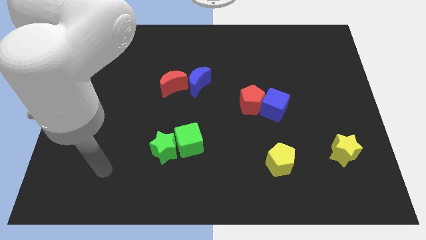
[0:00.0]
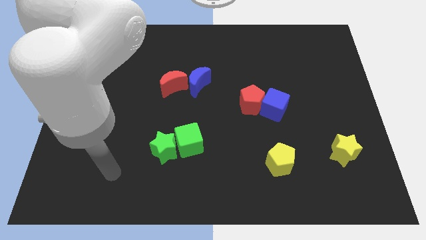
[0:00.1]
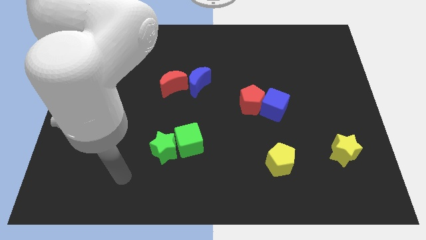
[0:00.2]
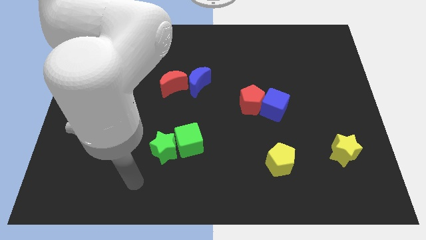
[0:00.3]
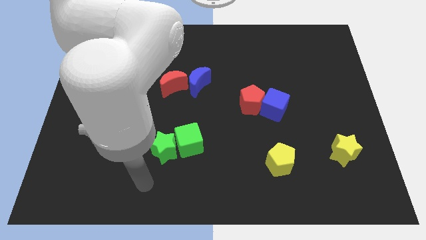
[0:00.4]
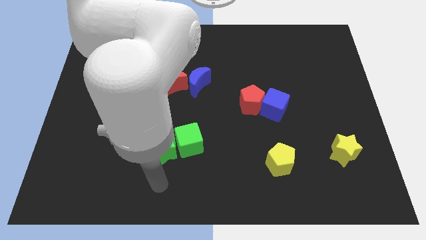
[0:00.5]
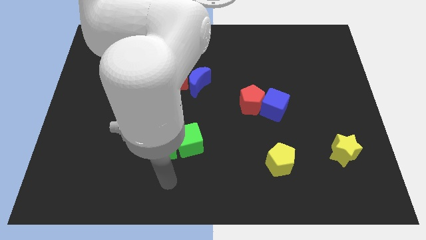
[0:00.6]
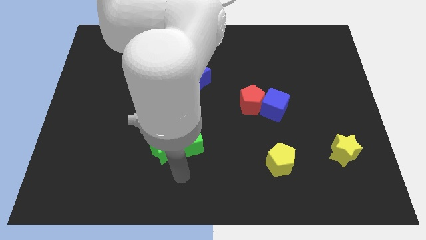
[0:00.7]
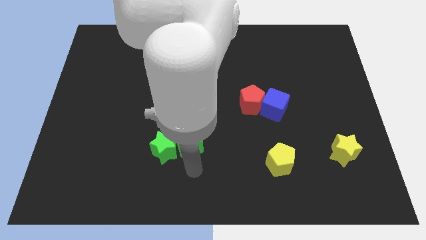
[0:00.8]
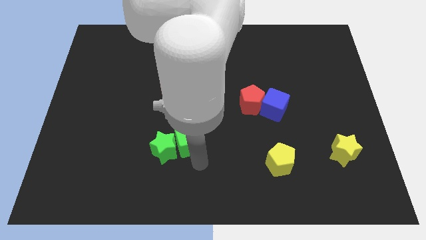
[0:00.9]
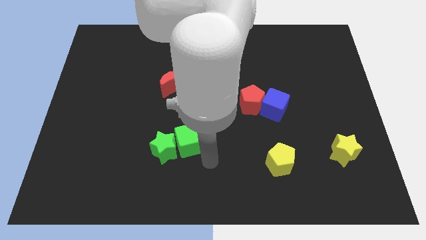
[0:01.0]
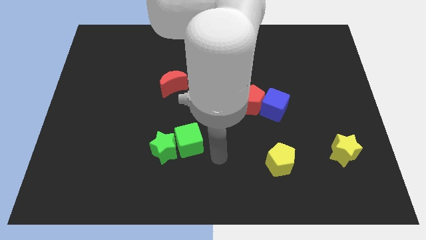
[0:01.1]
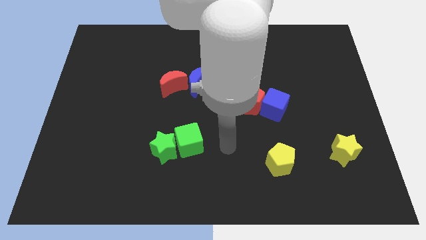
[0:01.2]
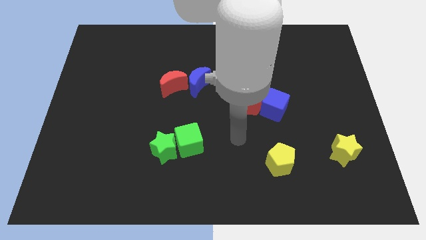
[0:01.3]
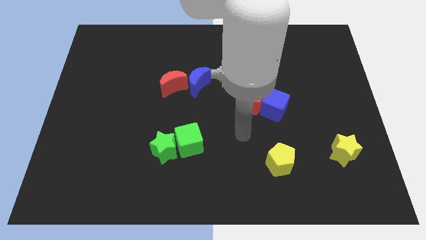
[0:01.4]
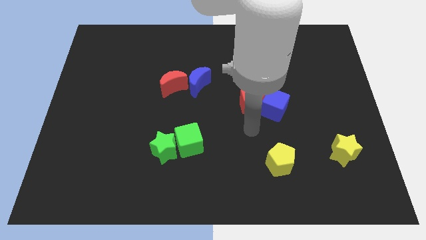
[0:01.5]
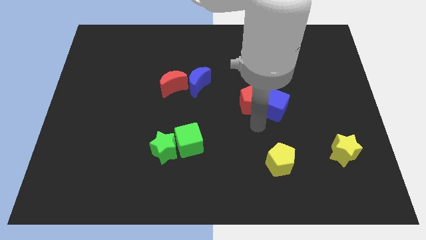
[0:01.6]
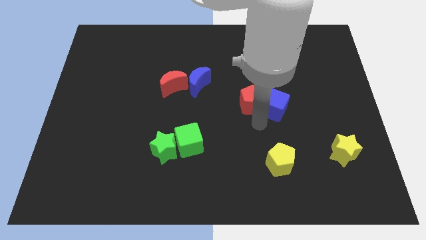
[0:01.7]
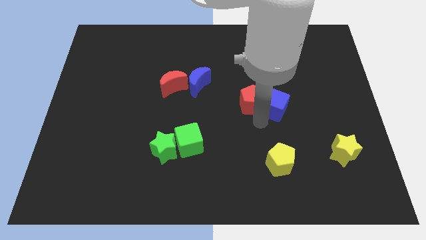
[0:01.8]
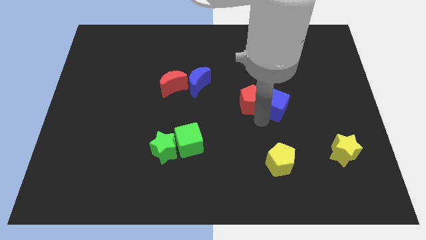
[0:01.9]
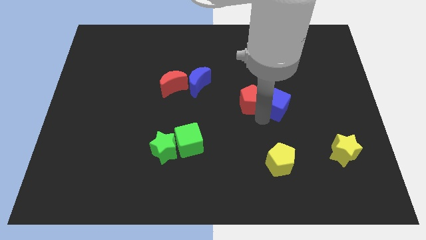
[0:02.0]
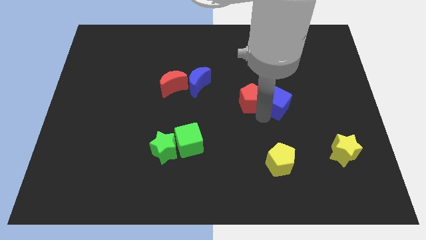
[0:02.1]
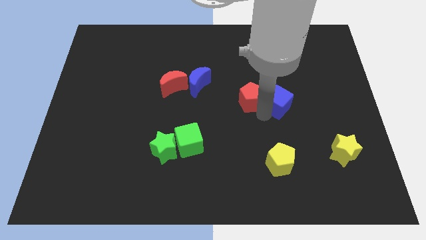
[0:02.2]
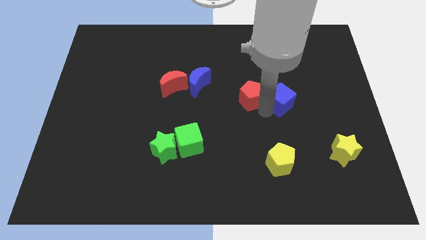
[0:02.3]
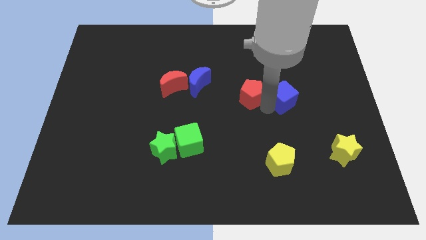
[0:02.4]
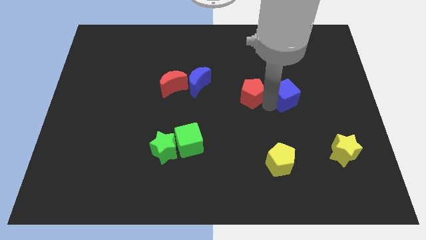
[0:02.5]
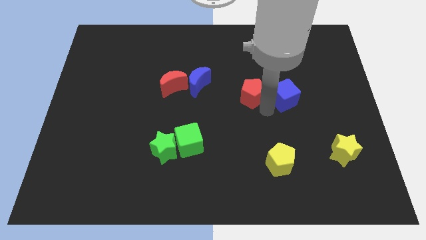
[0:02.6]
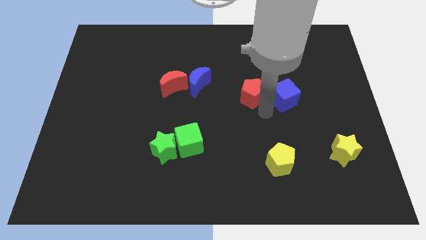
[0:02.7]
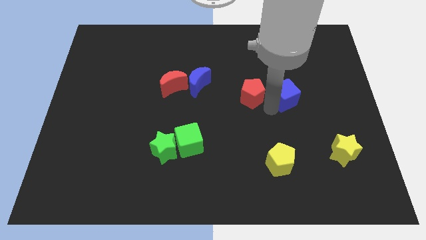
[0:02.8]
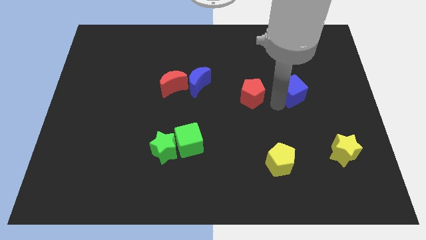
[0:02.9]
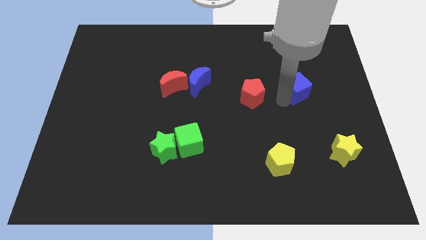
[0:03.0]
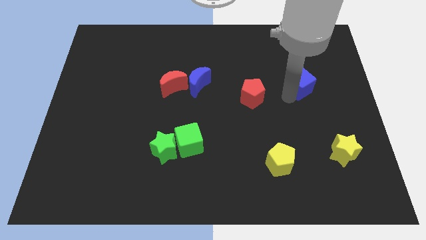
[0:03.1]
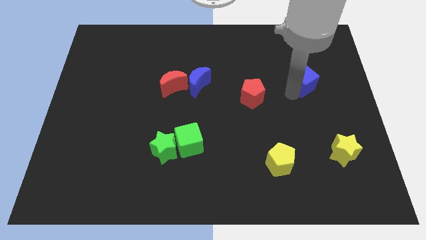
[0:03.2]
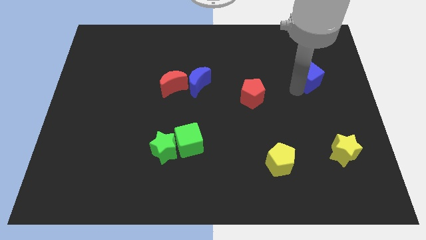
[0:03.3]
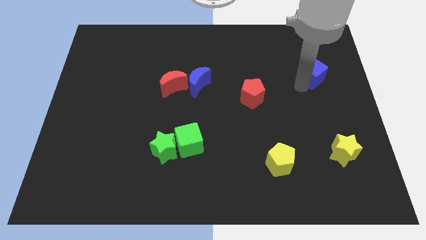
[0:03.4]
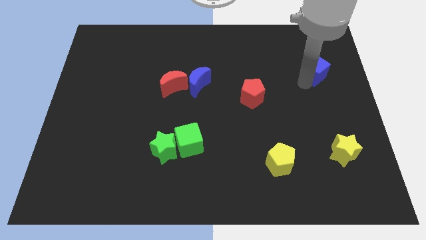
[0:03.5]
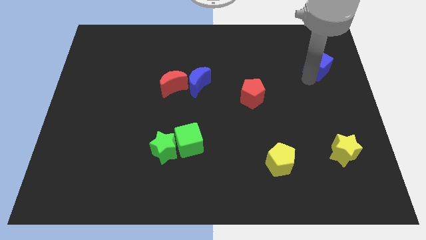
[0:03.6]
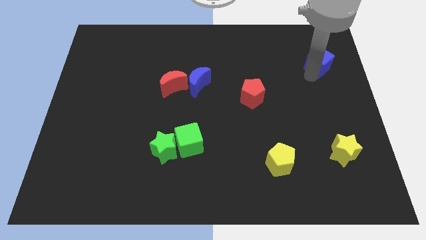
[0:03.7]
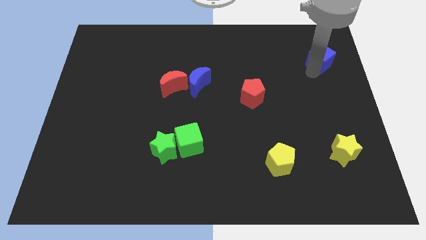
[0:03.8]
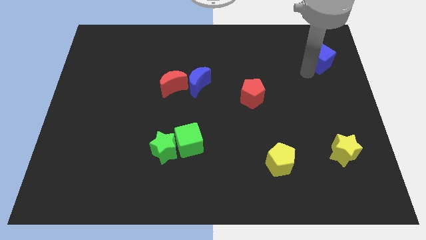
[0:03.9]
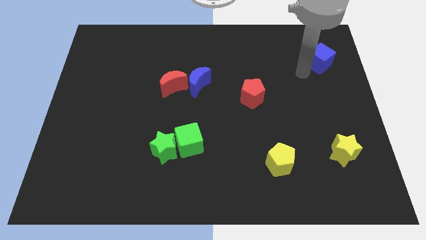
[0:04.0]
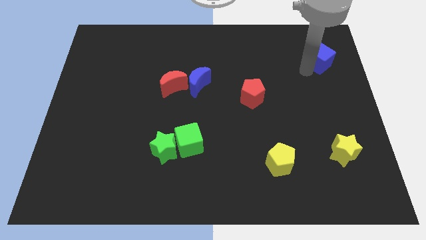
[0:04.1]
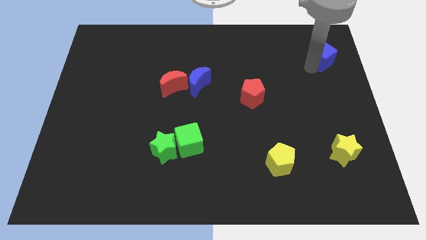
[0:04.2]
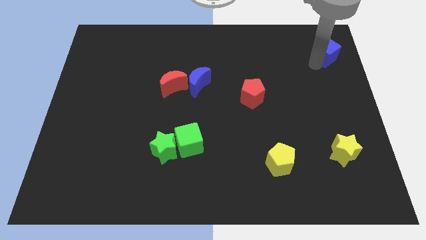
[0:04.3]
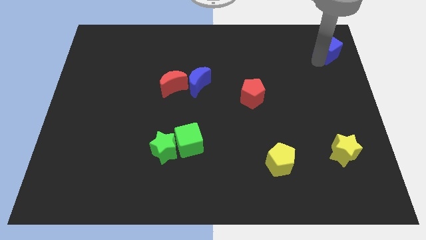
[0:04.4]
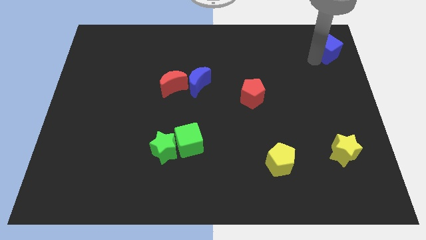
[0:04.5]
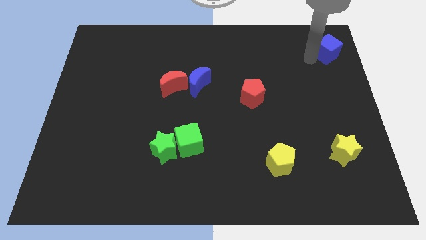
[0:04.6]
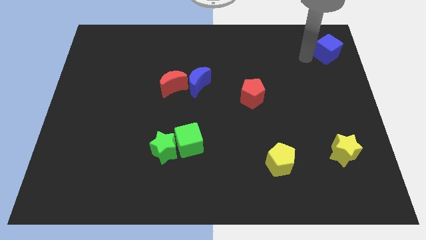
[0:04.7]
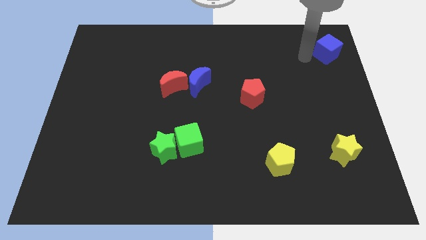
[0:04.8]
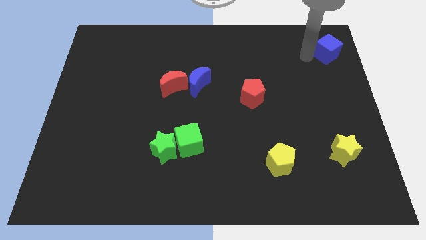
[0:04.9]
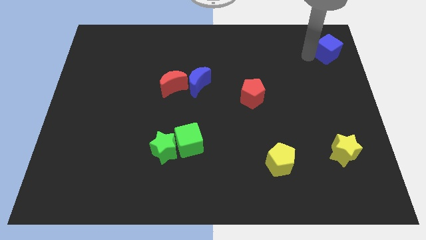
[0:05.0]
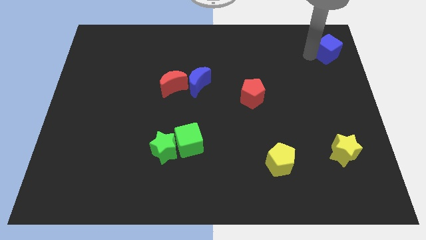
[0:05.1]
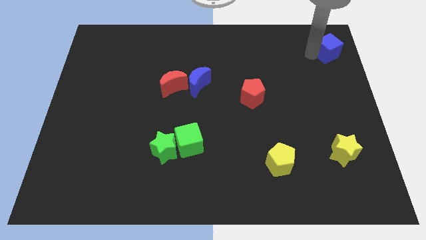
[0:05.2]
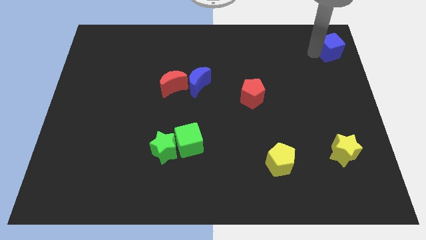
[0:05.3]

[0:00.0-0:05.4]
push the blue cube to the top right corner

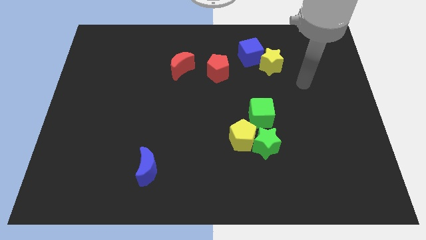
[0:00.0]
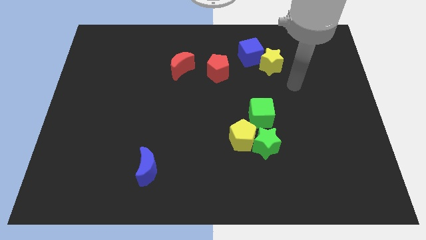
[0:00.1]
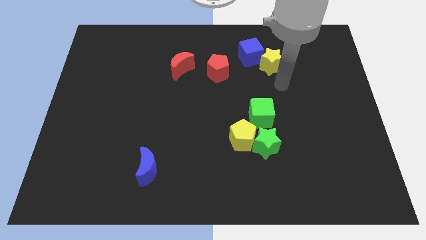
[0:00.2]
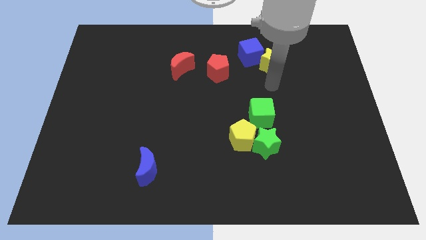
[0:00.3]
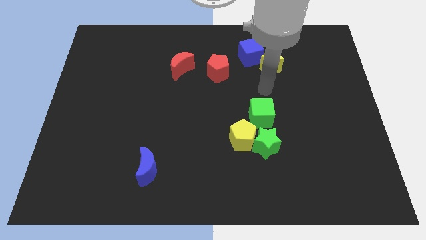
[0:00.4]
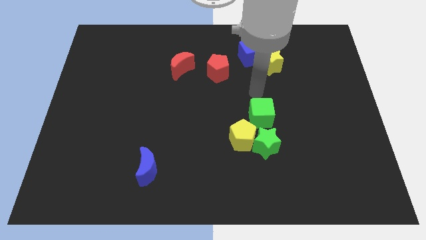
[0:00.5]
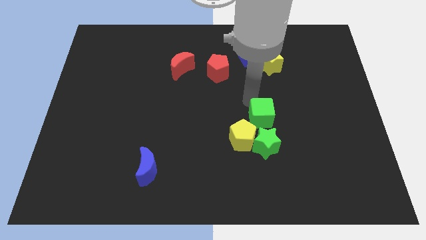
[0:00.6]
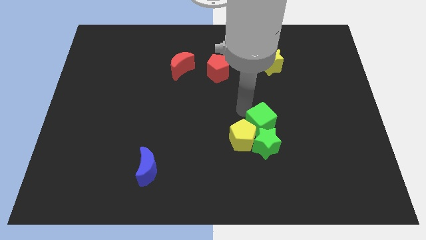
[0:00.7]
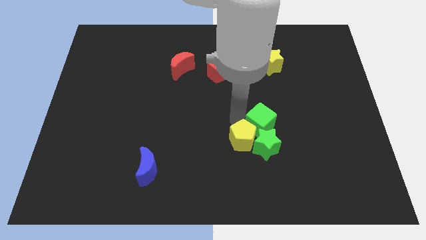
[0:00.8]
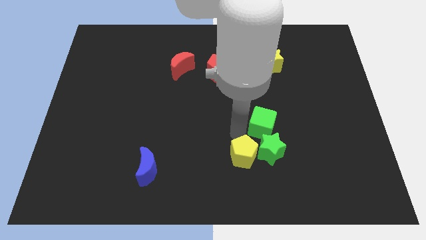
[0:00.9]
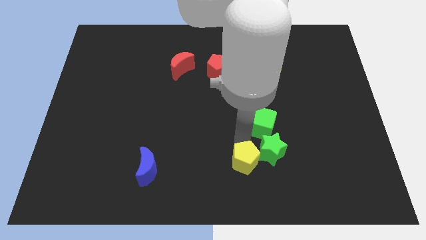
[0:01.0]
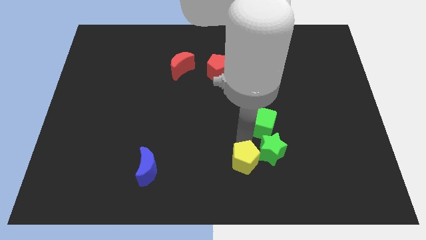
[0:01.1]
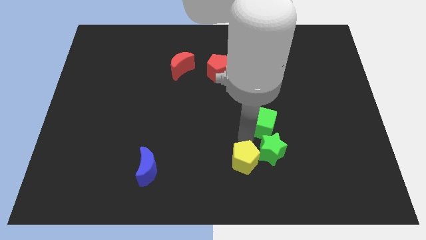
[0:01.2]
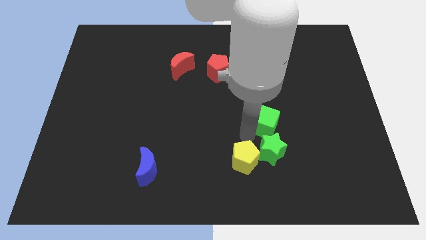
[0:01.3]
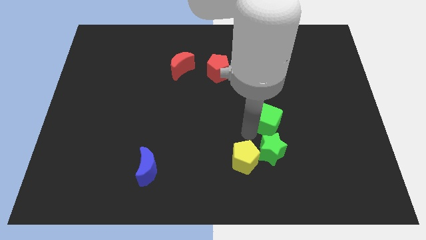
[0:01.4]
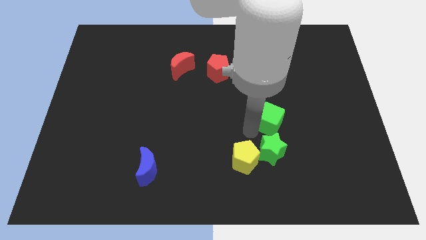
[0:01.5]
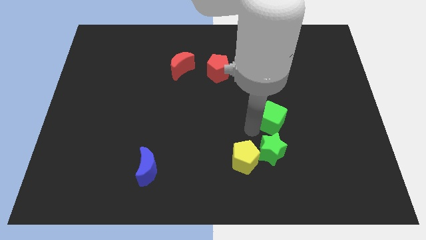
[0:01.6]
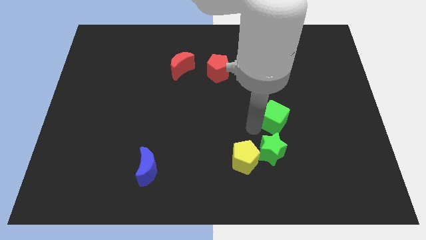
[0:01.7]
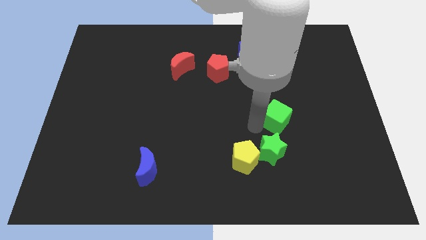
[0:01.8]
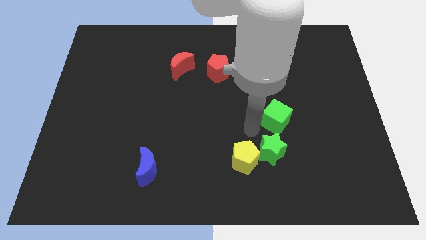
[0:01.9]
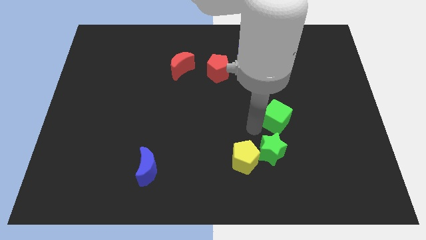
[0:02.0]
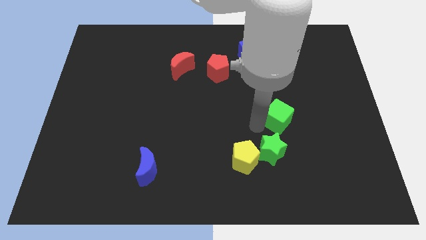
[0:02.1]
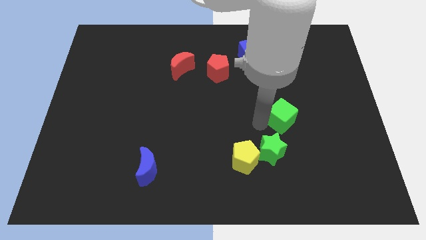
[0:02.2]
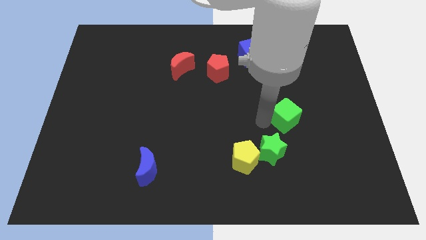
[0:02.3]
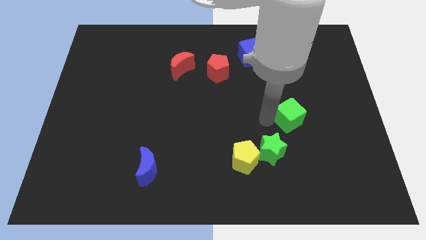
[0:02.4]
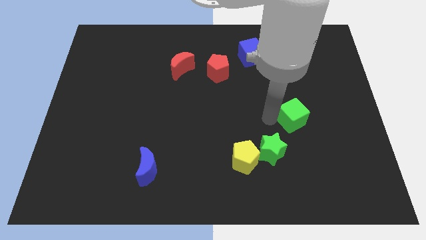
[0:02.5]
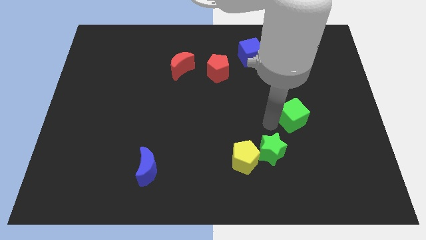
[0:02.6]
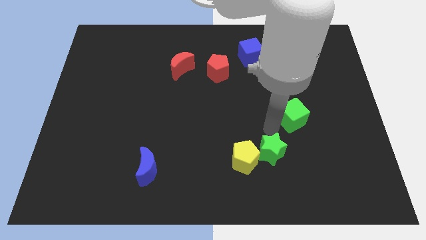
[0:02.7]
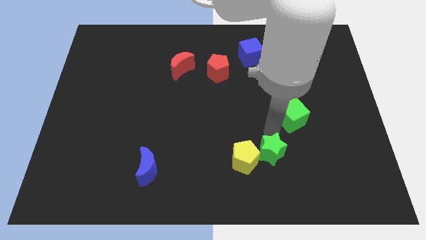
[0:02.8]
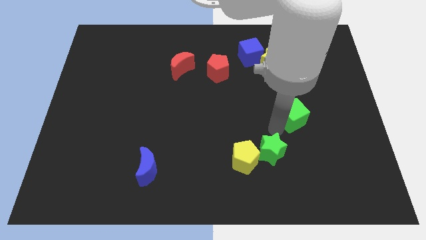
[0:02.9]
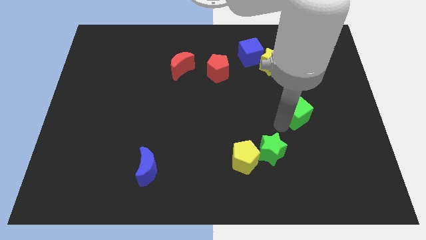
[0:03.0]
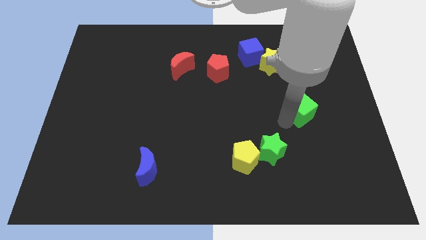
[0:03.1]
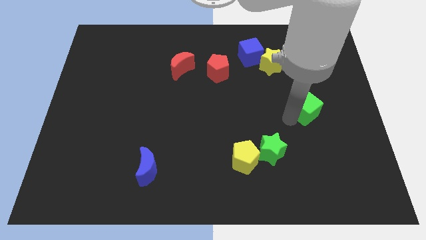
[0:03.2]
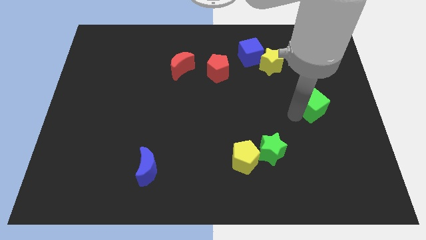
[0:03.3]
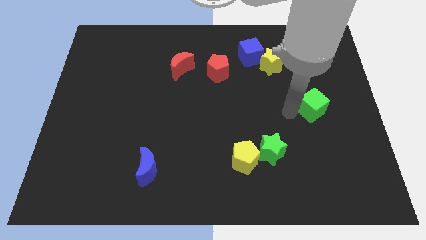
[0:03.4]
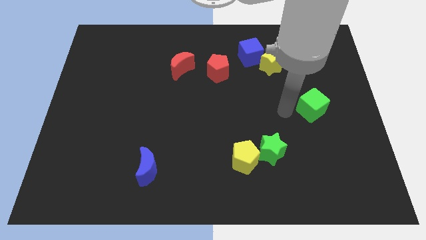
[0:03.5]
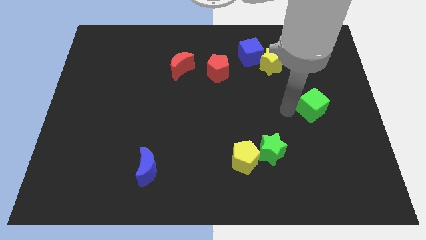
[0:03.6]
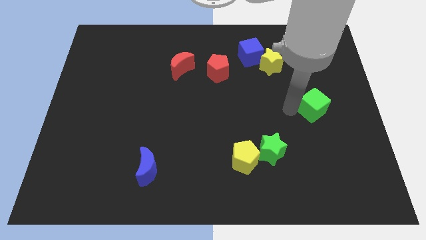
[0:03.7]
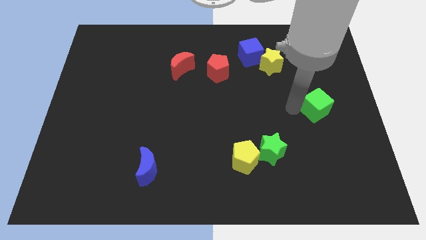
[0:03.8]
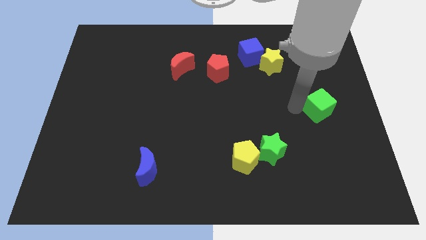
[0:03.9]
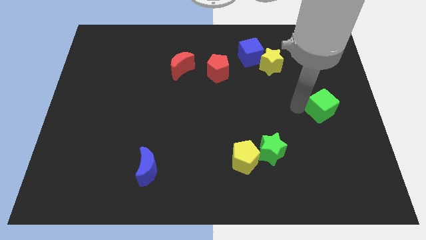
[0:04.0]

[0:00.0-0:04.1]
move the green cube to the right side of the board
